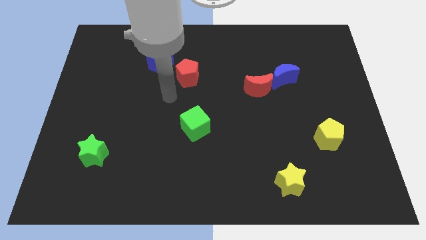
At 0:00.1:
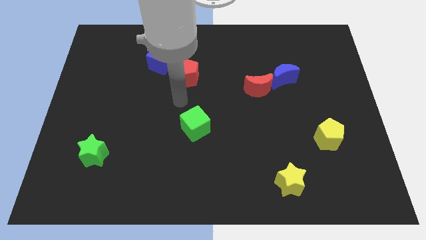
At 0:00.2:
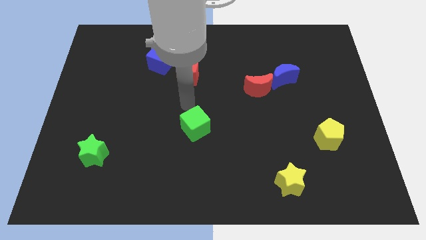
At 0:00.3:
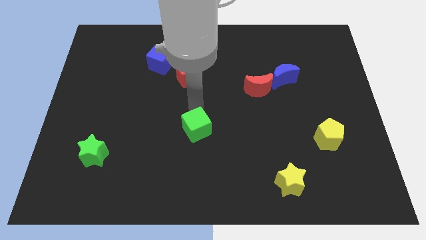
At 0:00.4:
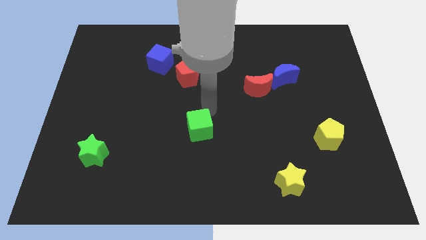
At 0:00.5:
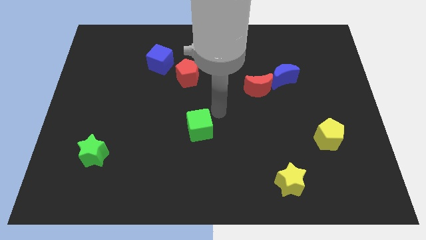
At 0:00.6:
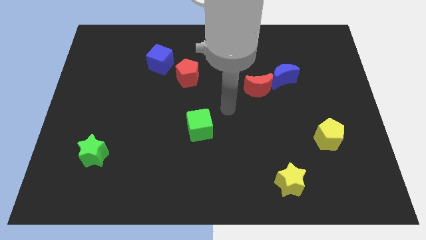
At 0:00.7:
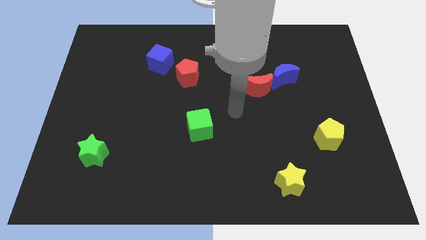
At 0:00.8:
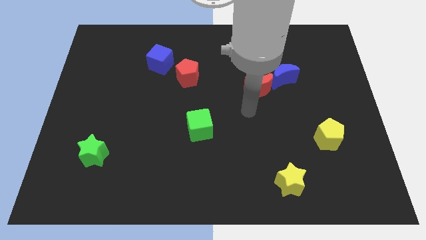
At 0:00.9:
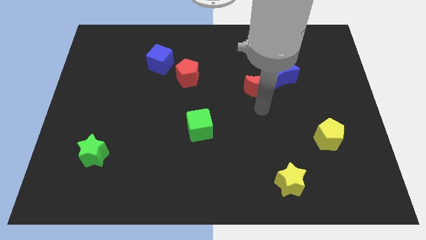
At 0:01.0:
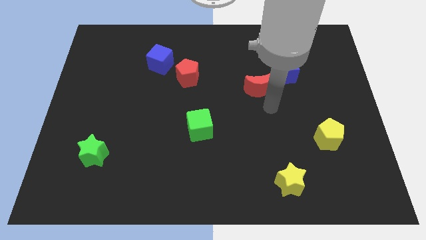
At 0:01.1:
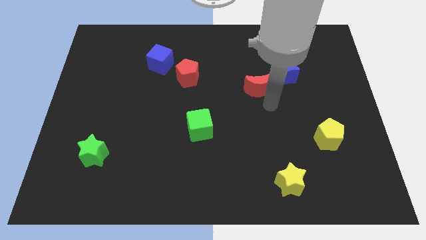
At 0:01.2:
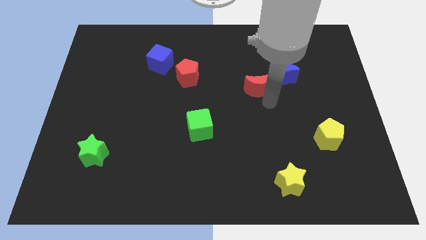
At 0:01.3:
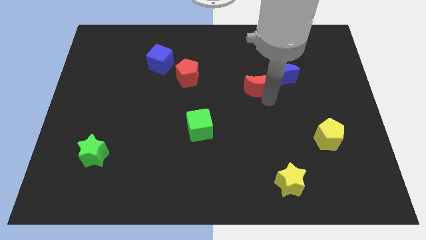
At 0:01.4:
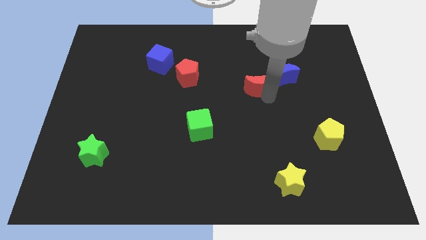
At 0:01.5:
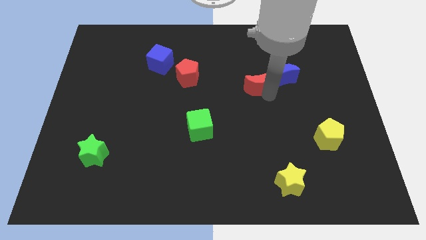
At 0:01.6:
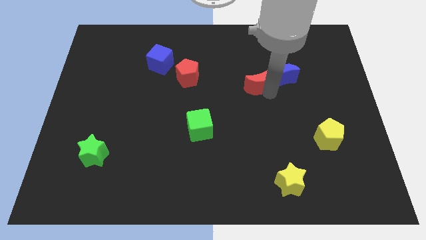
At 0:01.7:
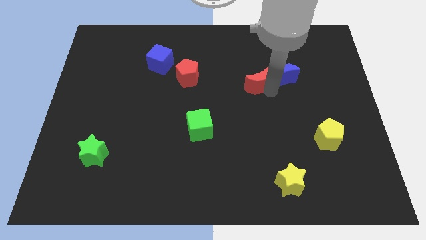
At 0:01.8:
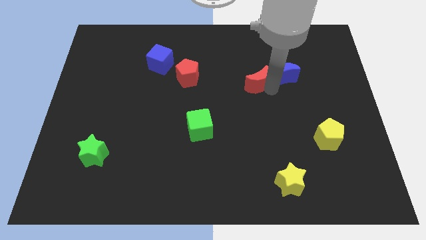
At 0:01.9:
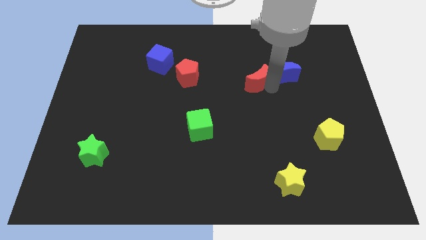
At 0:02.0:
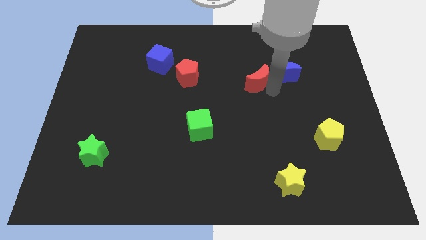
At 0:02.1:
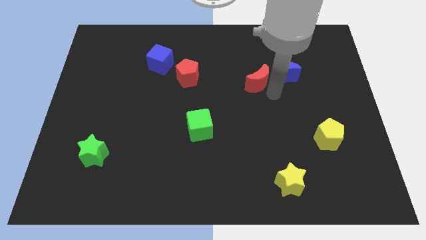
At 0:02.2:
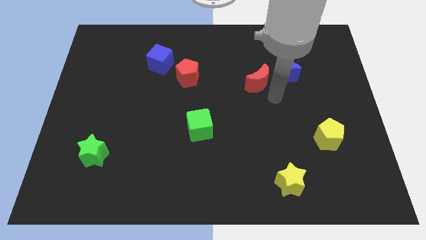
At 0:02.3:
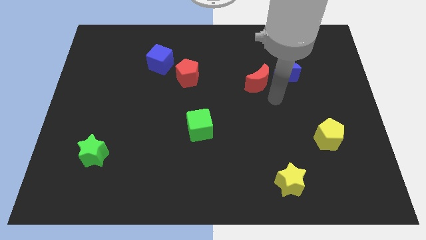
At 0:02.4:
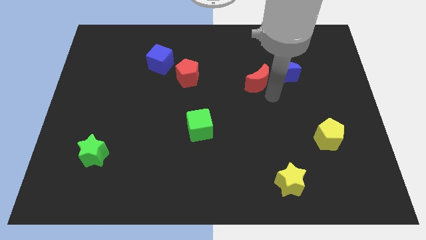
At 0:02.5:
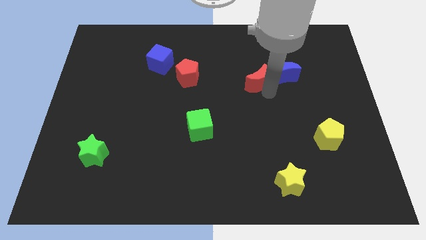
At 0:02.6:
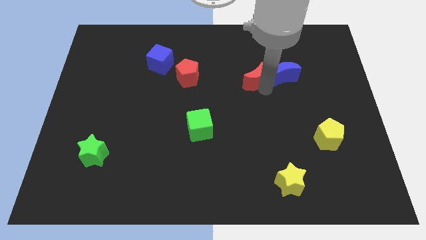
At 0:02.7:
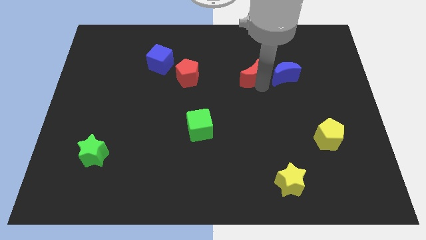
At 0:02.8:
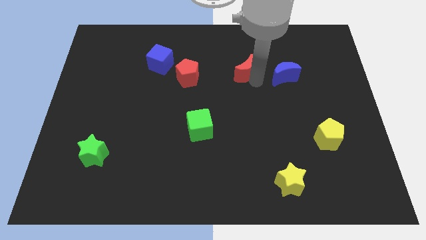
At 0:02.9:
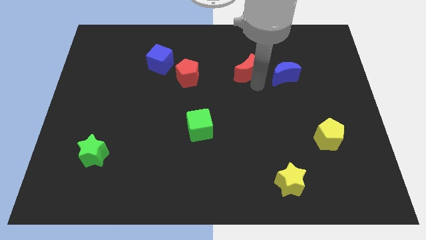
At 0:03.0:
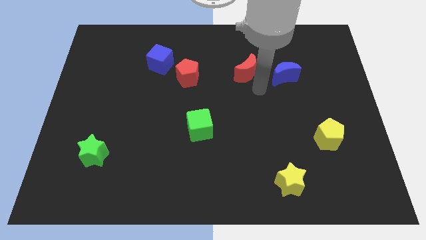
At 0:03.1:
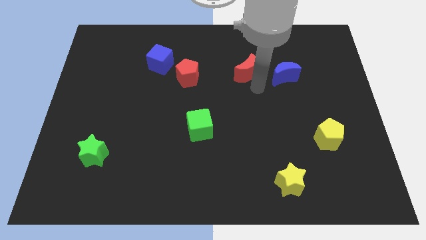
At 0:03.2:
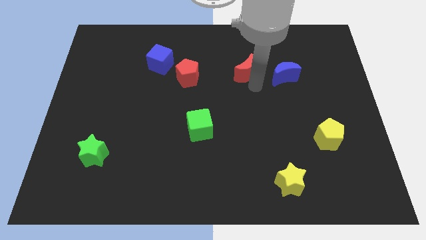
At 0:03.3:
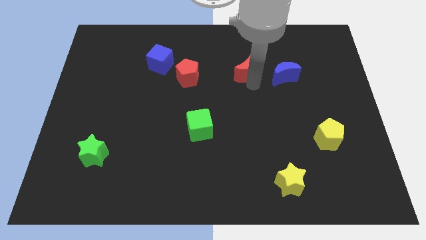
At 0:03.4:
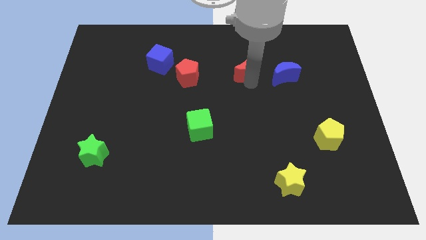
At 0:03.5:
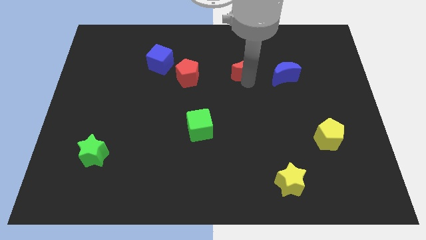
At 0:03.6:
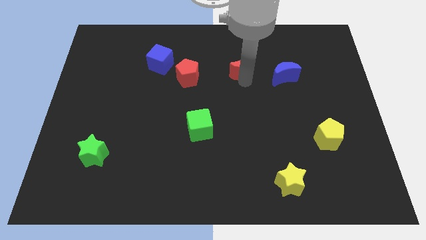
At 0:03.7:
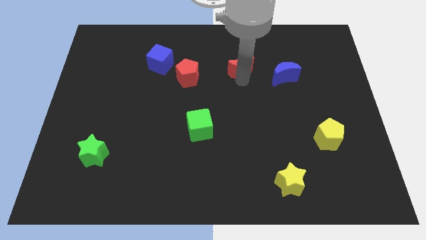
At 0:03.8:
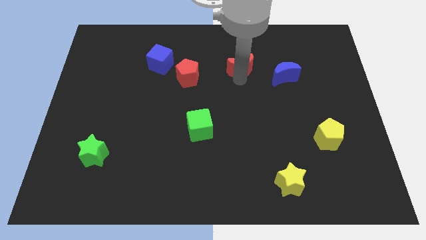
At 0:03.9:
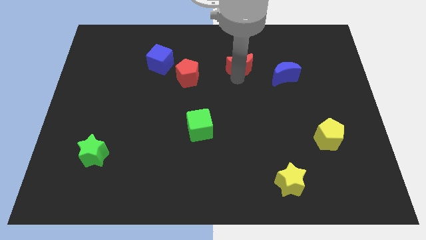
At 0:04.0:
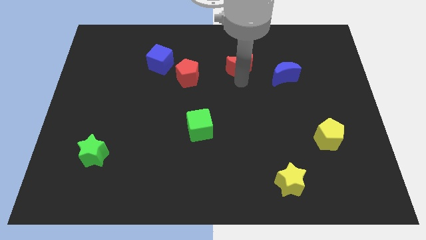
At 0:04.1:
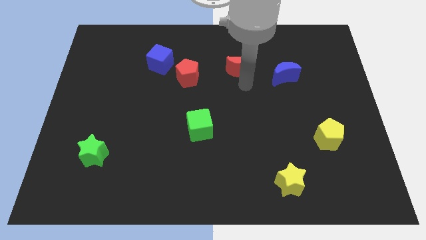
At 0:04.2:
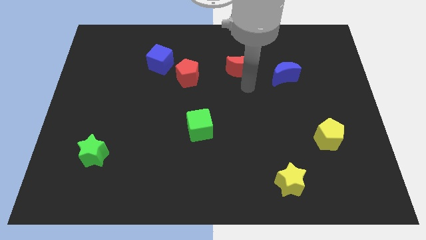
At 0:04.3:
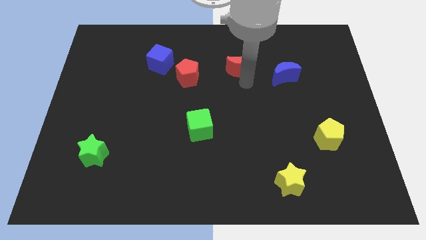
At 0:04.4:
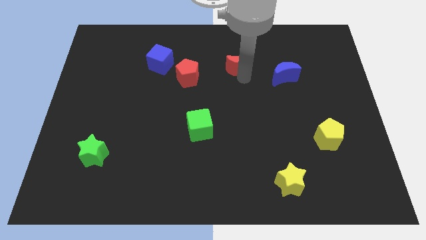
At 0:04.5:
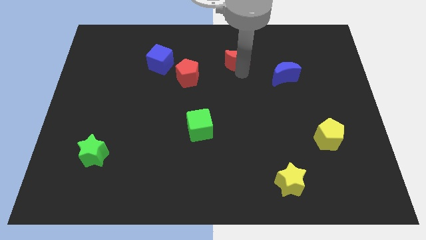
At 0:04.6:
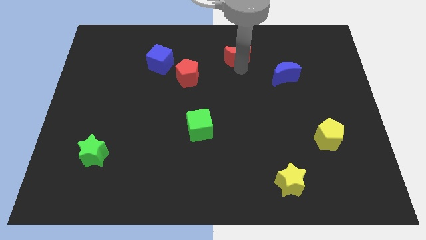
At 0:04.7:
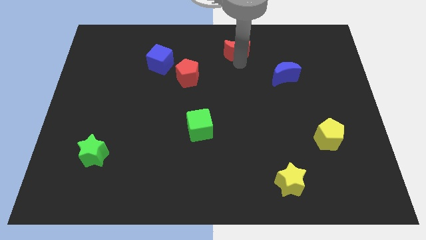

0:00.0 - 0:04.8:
put the red moon to the top

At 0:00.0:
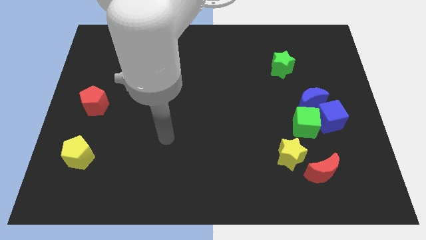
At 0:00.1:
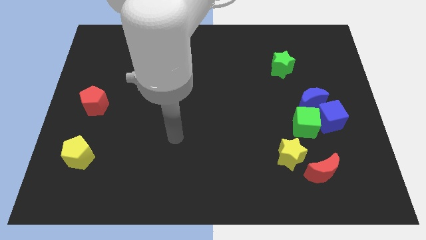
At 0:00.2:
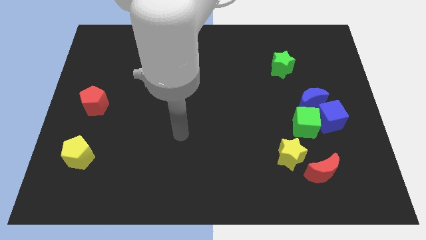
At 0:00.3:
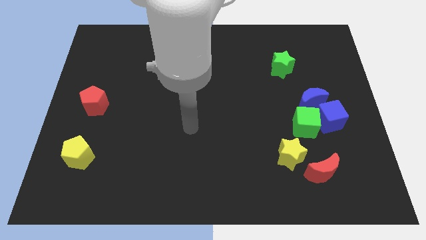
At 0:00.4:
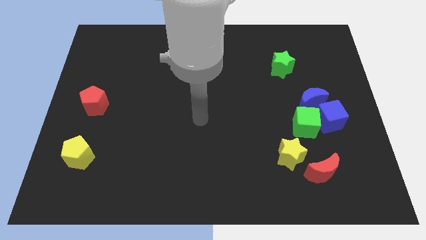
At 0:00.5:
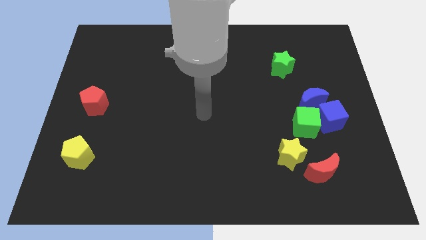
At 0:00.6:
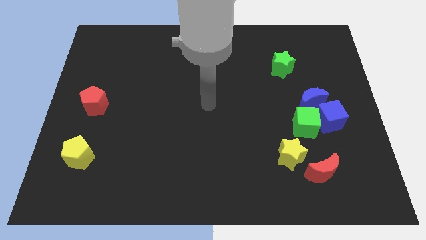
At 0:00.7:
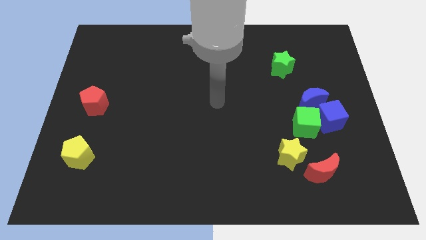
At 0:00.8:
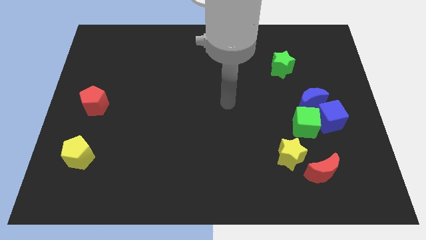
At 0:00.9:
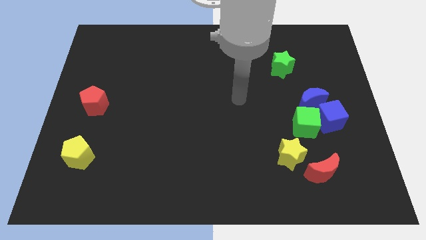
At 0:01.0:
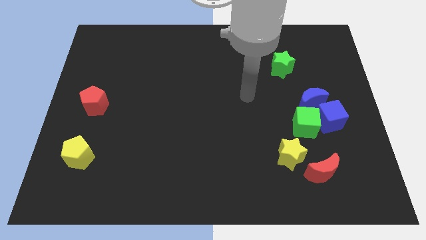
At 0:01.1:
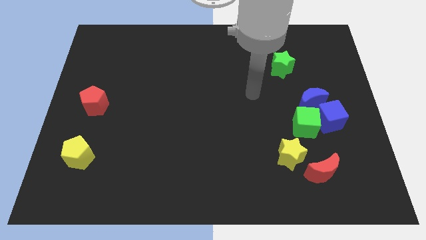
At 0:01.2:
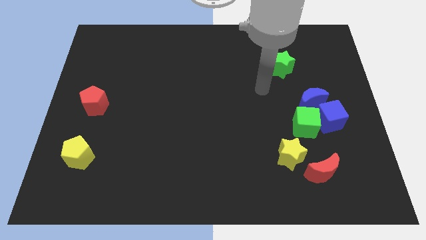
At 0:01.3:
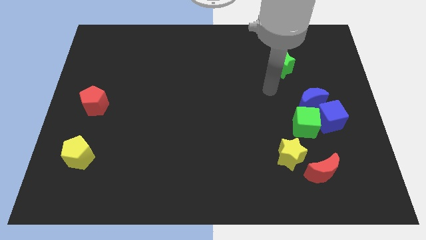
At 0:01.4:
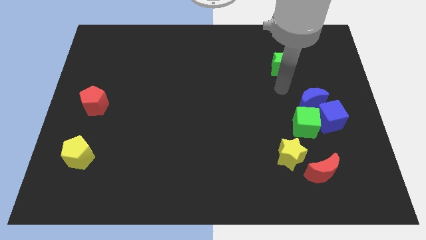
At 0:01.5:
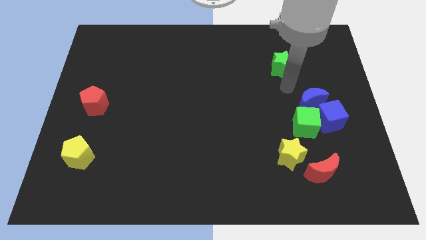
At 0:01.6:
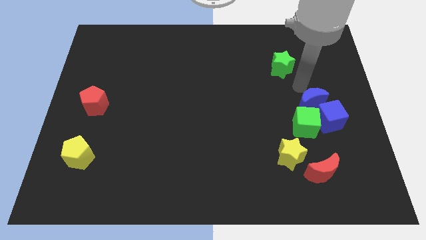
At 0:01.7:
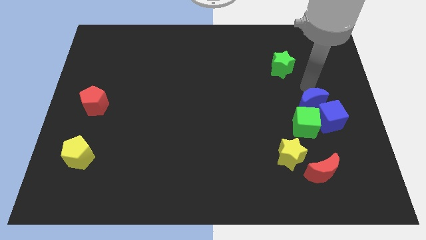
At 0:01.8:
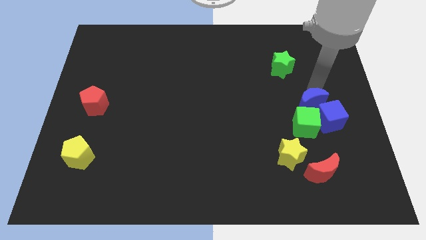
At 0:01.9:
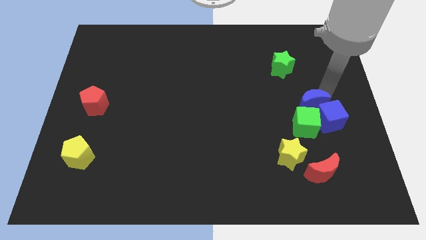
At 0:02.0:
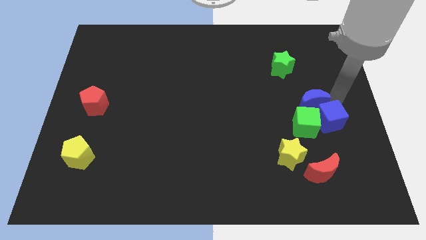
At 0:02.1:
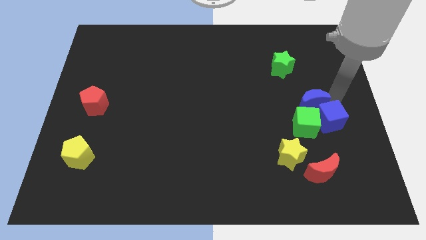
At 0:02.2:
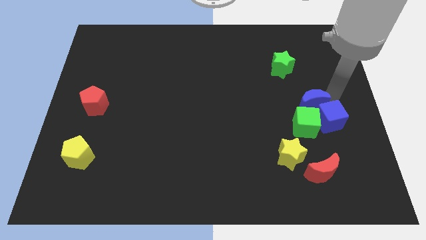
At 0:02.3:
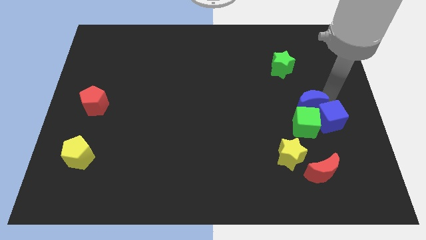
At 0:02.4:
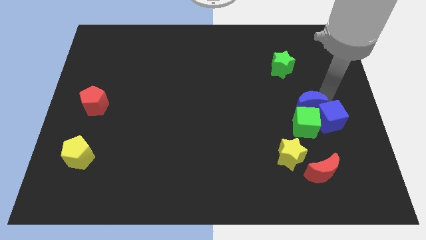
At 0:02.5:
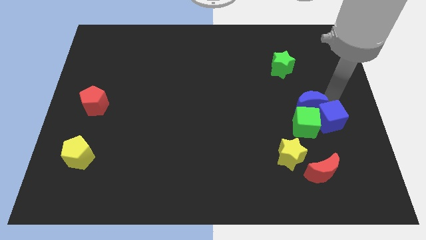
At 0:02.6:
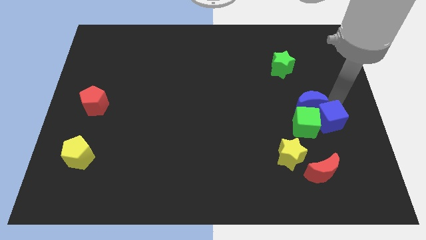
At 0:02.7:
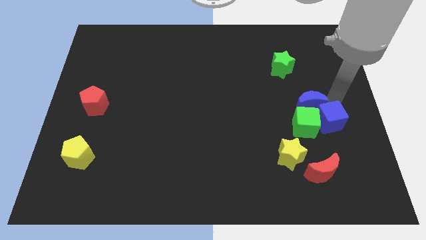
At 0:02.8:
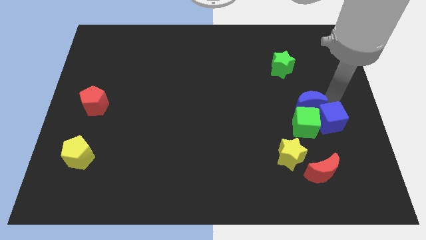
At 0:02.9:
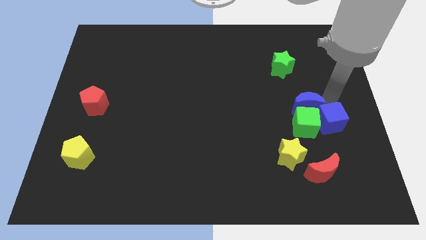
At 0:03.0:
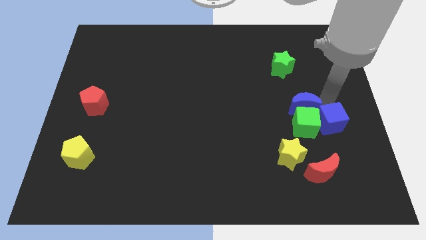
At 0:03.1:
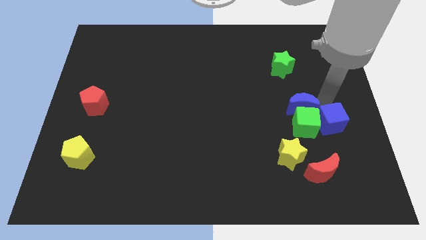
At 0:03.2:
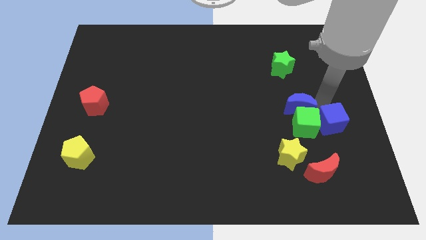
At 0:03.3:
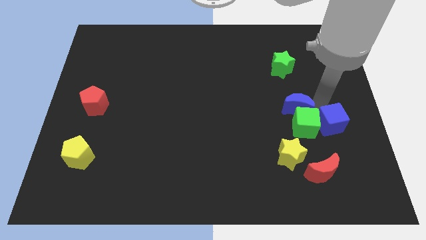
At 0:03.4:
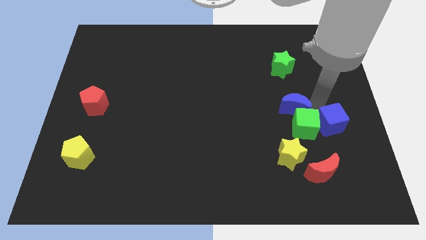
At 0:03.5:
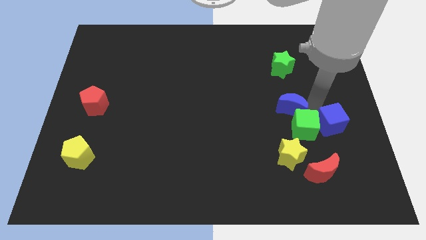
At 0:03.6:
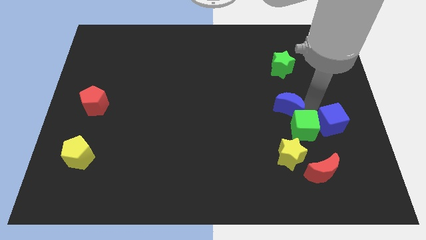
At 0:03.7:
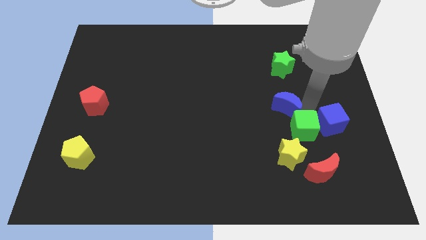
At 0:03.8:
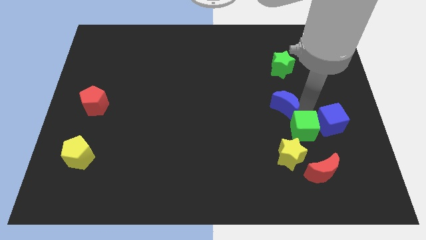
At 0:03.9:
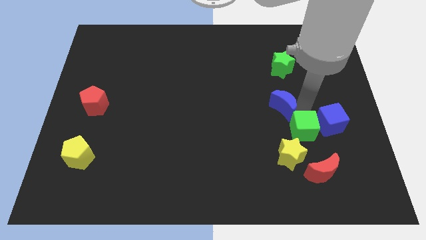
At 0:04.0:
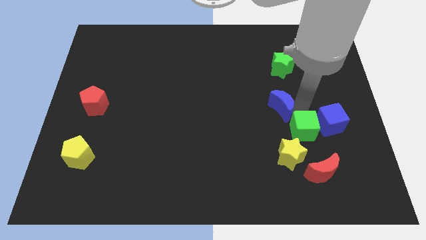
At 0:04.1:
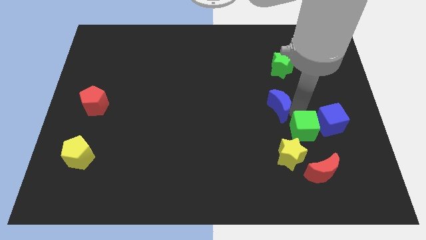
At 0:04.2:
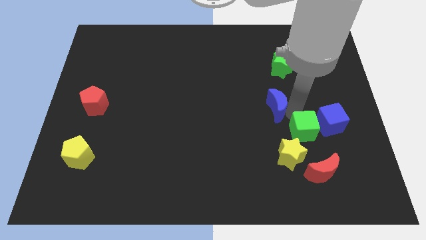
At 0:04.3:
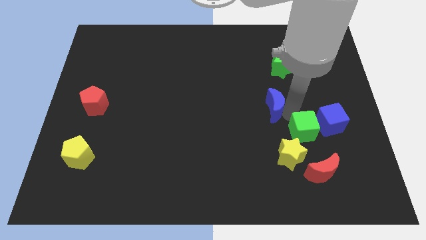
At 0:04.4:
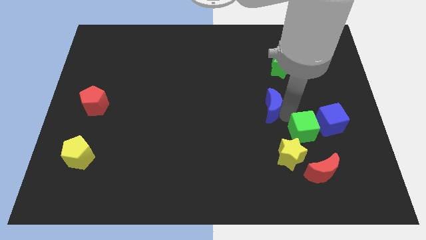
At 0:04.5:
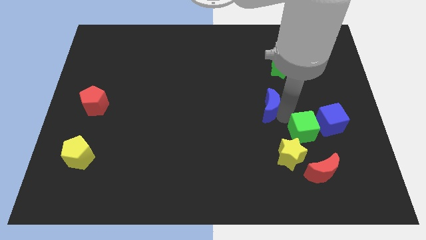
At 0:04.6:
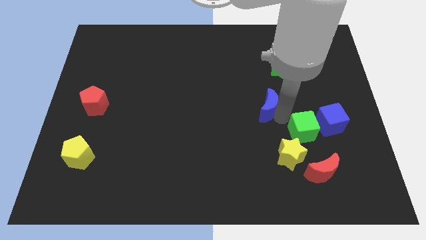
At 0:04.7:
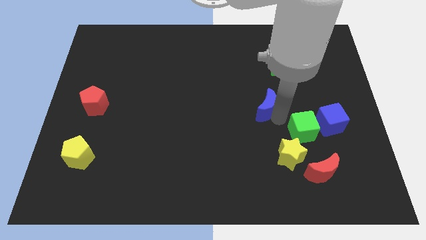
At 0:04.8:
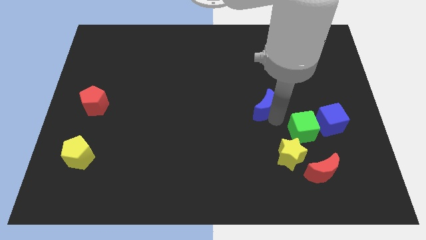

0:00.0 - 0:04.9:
put the blue moon to the middle
